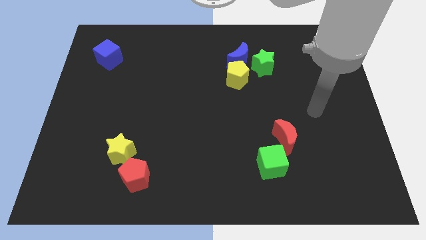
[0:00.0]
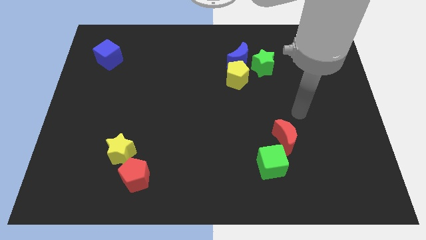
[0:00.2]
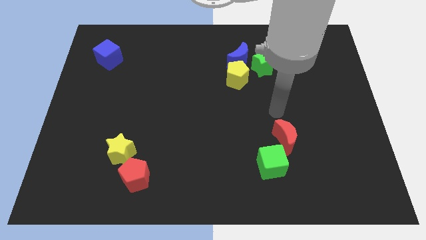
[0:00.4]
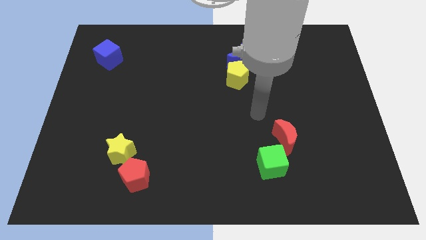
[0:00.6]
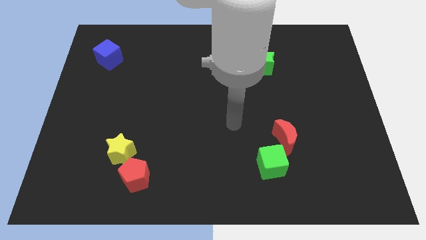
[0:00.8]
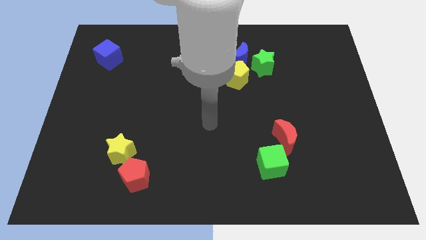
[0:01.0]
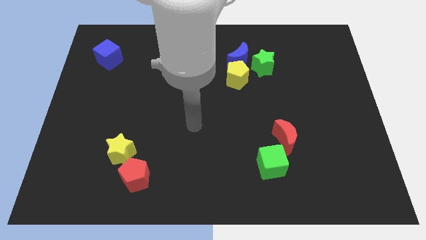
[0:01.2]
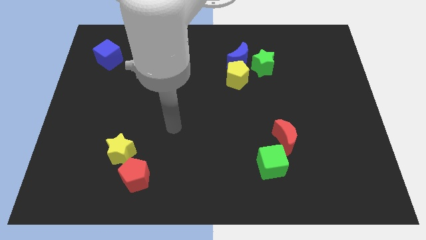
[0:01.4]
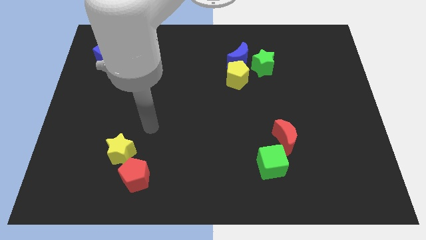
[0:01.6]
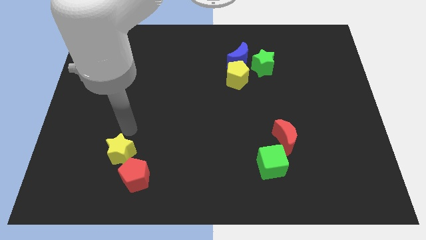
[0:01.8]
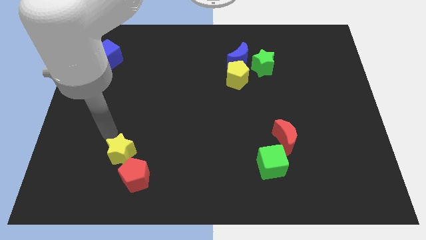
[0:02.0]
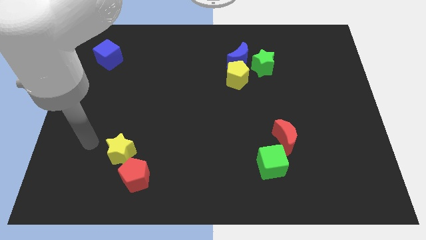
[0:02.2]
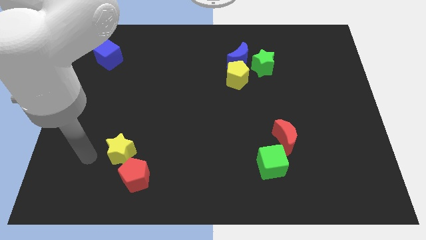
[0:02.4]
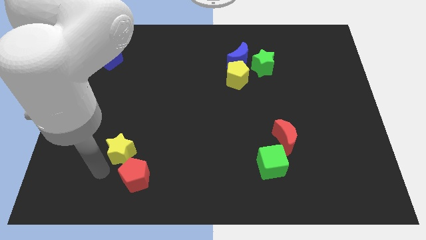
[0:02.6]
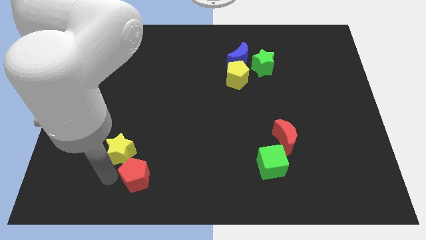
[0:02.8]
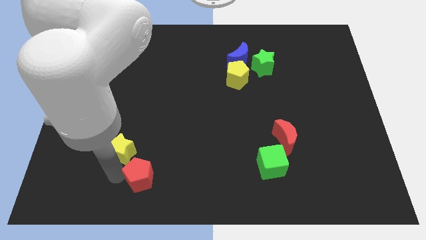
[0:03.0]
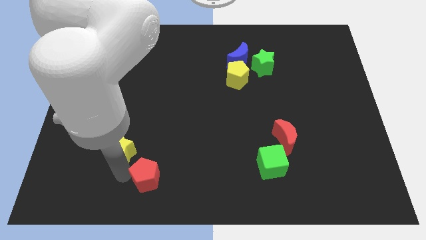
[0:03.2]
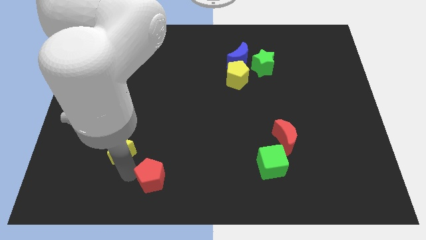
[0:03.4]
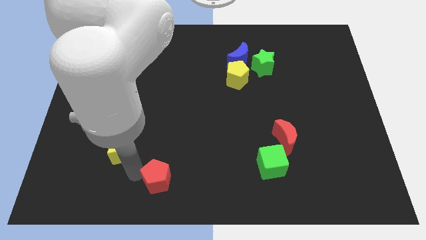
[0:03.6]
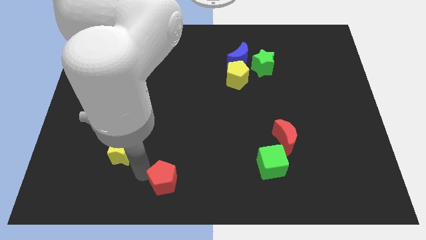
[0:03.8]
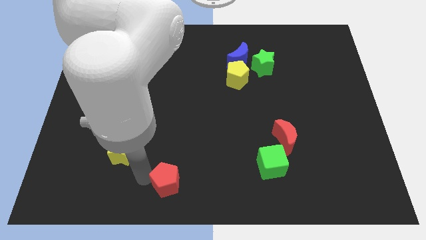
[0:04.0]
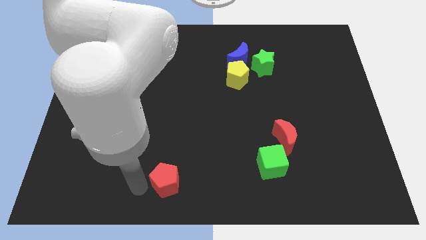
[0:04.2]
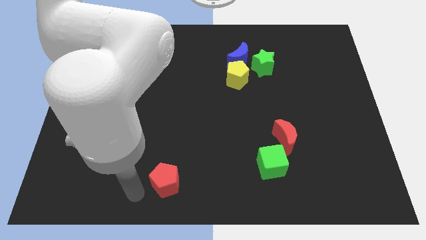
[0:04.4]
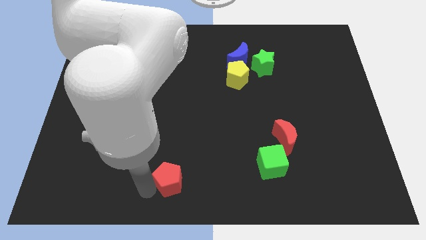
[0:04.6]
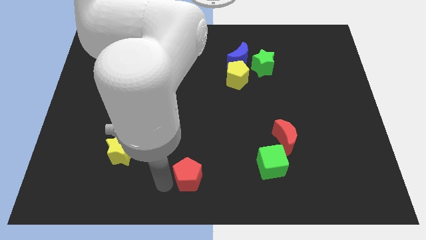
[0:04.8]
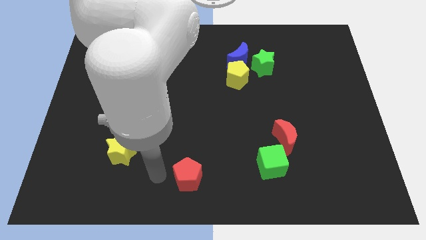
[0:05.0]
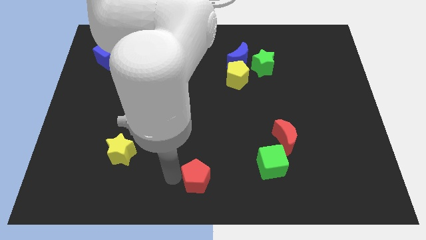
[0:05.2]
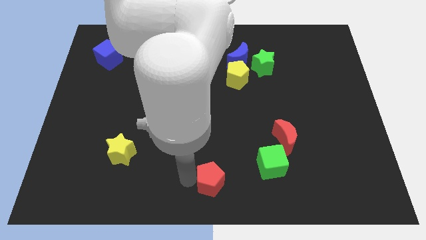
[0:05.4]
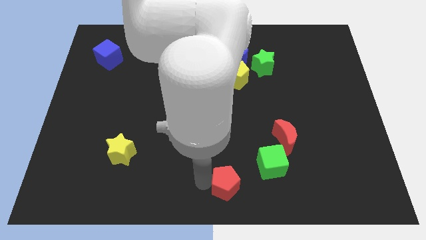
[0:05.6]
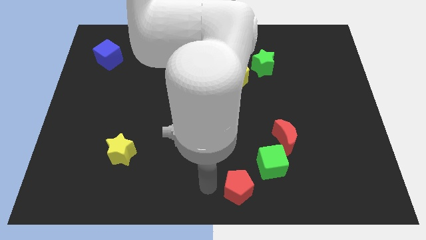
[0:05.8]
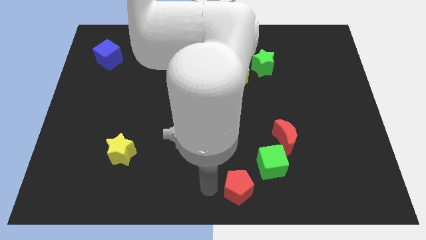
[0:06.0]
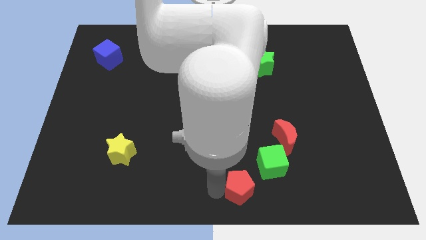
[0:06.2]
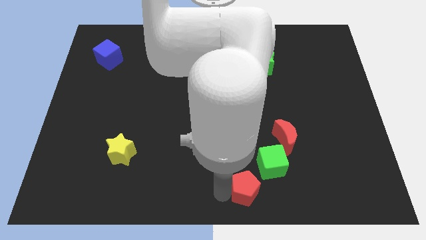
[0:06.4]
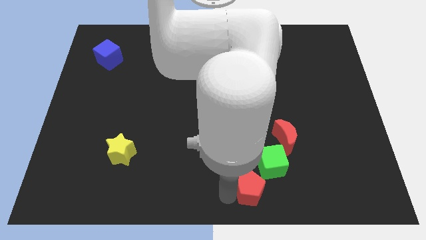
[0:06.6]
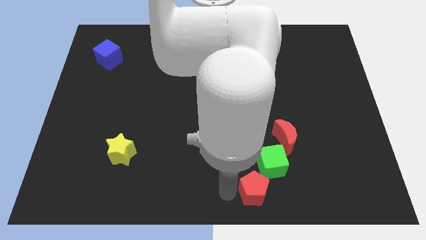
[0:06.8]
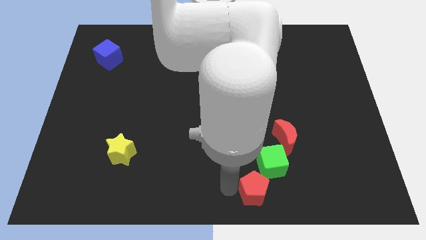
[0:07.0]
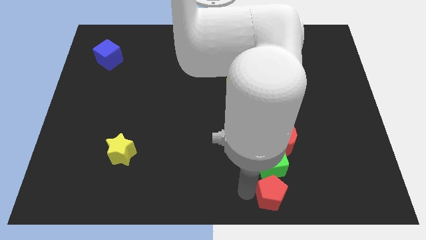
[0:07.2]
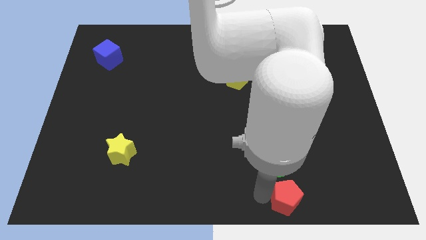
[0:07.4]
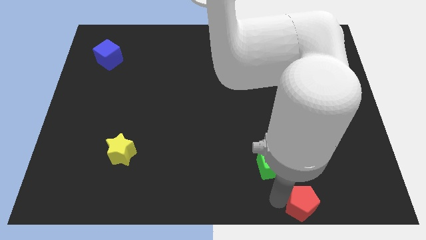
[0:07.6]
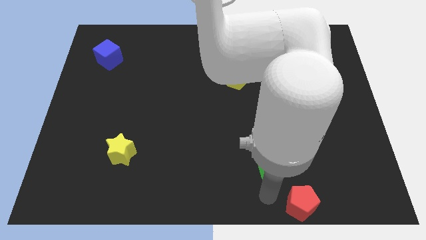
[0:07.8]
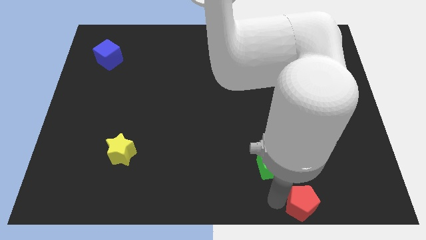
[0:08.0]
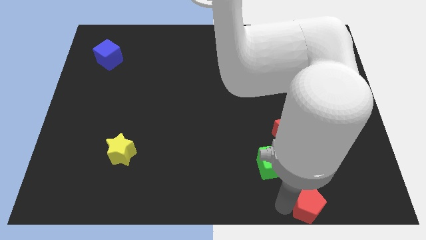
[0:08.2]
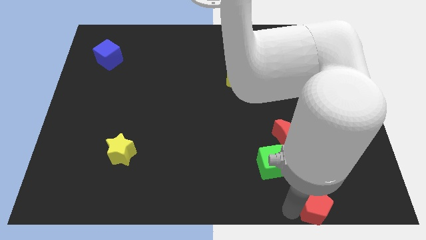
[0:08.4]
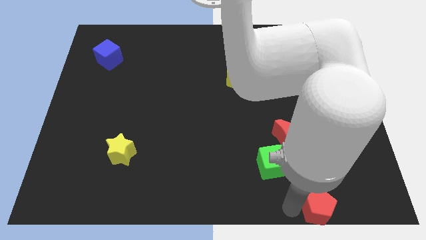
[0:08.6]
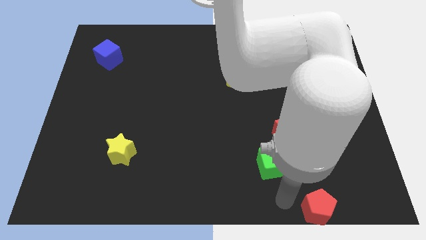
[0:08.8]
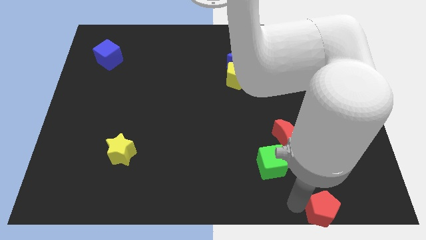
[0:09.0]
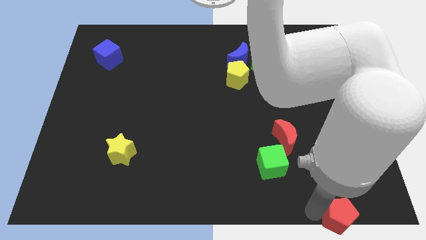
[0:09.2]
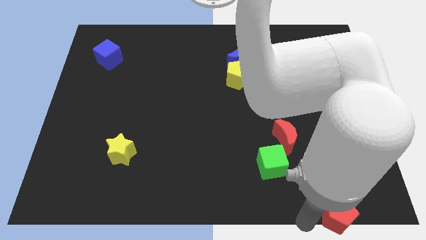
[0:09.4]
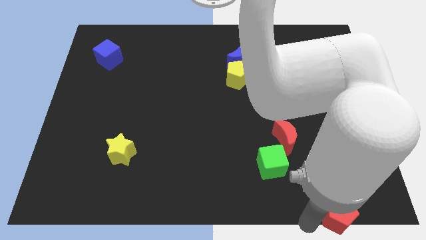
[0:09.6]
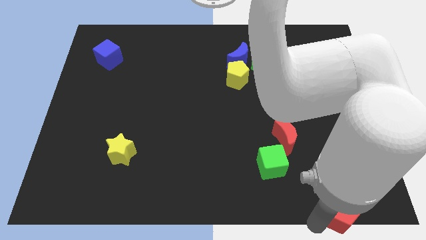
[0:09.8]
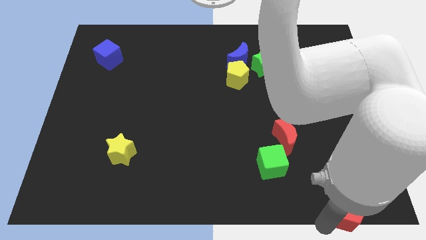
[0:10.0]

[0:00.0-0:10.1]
put the red pentagon to the bottom right

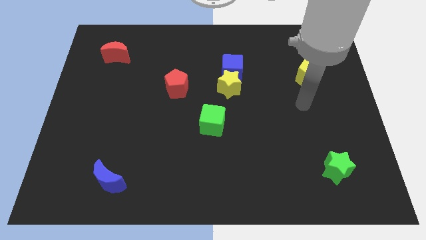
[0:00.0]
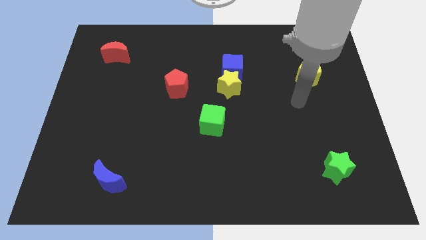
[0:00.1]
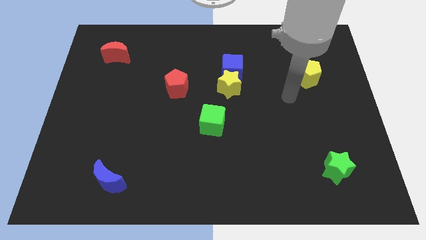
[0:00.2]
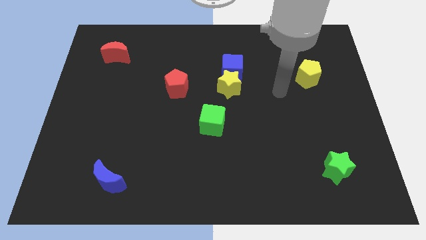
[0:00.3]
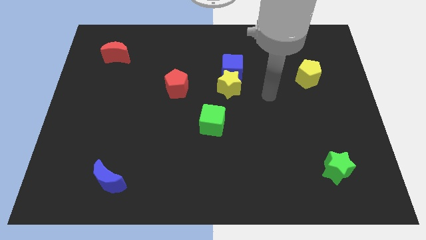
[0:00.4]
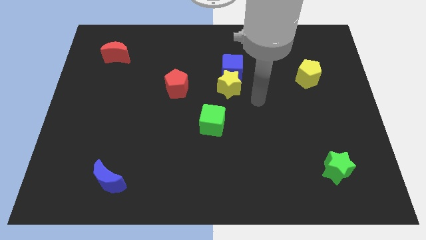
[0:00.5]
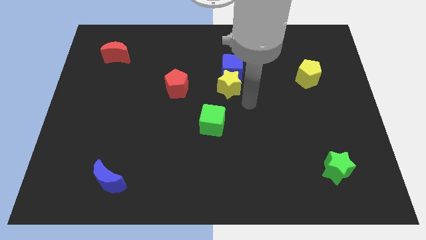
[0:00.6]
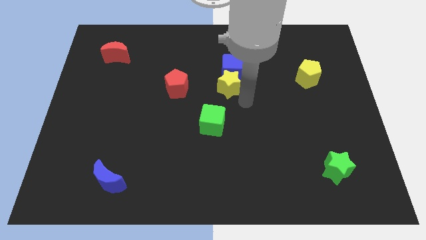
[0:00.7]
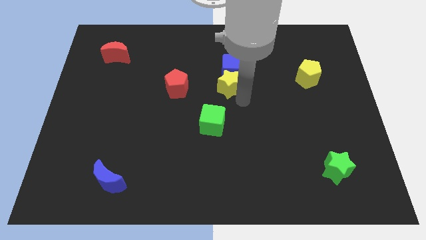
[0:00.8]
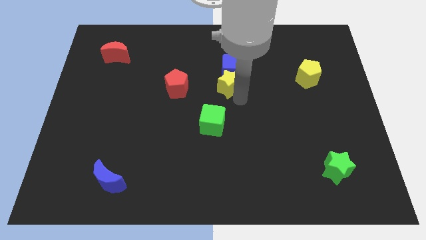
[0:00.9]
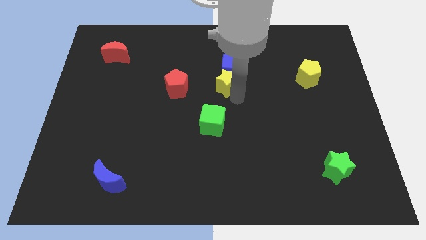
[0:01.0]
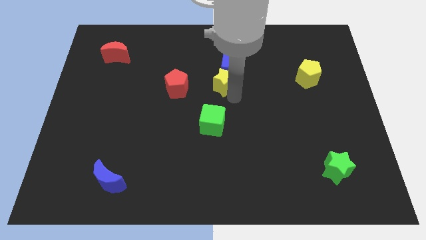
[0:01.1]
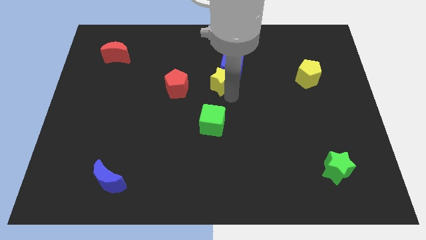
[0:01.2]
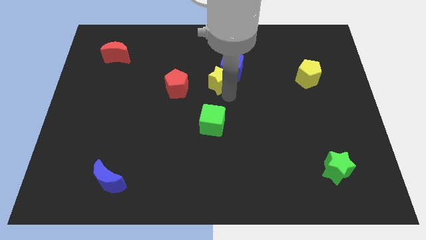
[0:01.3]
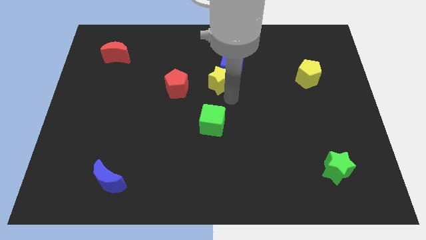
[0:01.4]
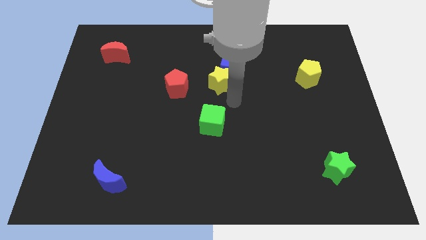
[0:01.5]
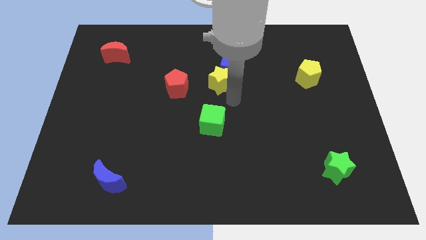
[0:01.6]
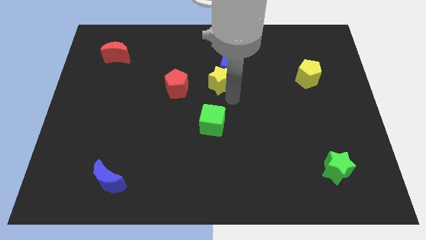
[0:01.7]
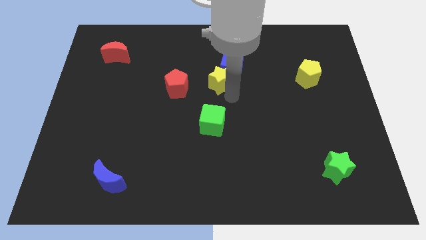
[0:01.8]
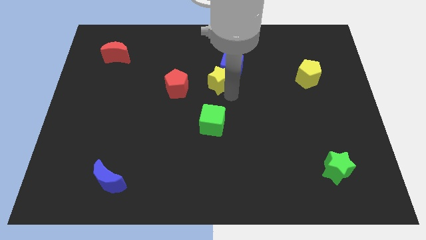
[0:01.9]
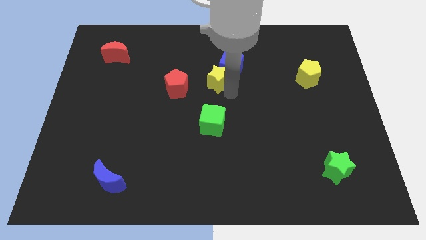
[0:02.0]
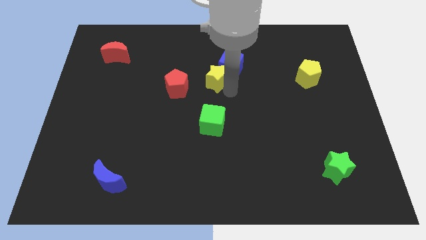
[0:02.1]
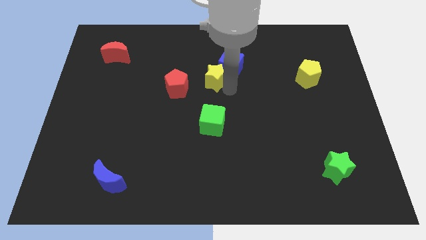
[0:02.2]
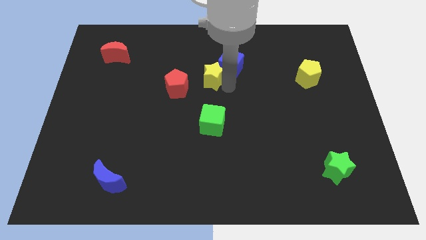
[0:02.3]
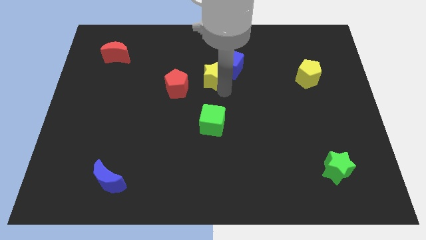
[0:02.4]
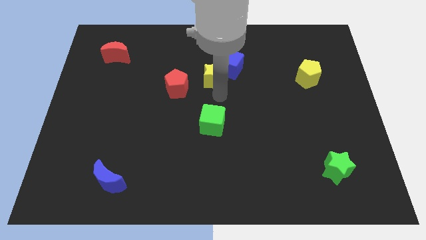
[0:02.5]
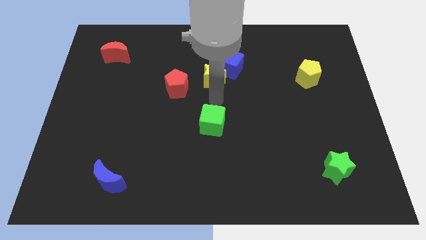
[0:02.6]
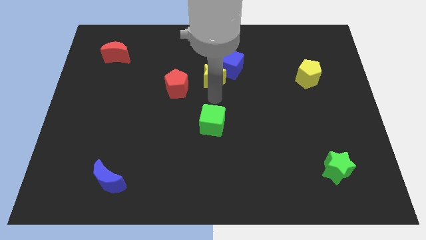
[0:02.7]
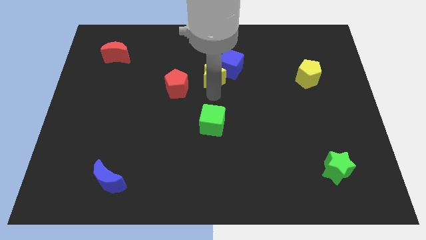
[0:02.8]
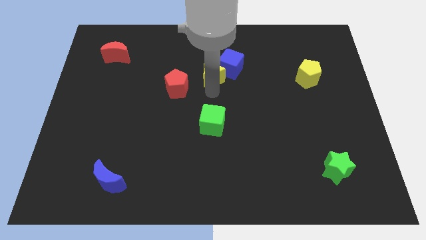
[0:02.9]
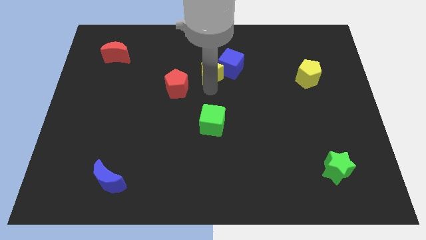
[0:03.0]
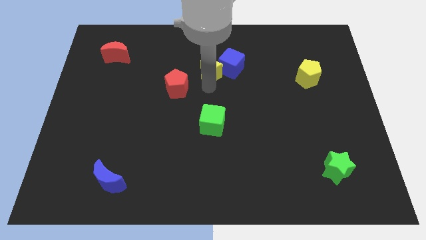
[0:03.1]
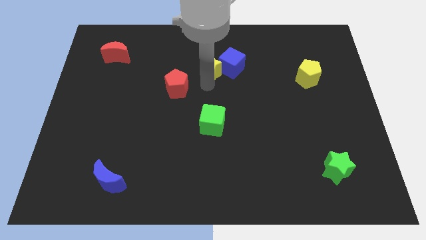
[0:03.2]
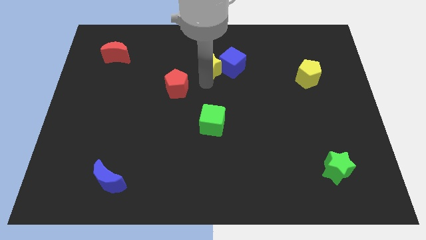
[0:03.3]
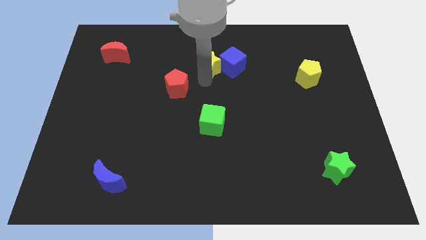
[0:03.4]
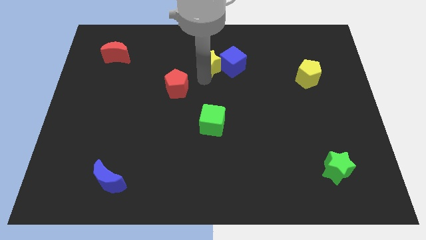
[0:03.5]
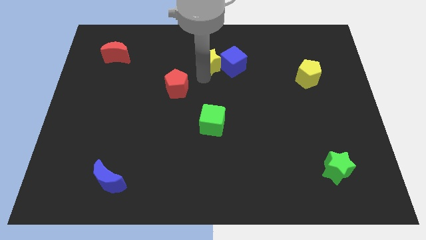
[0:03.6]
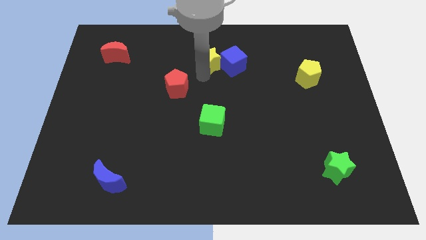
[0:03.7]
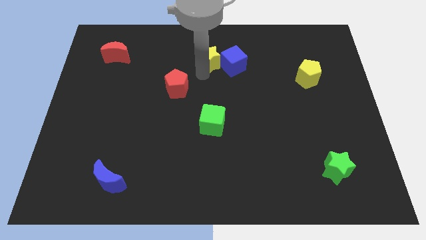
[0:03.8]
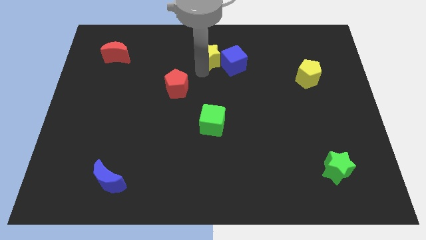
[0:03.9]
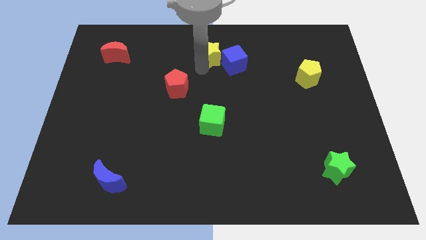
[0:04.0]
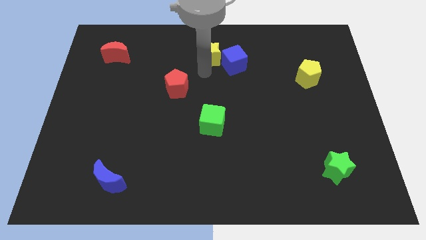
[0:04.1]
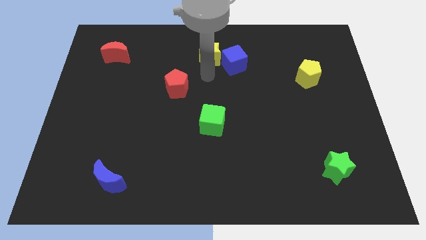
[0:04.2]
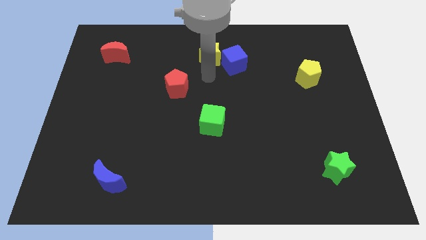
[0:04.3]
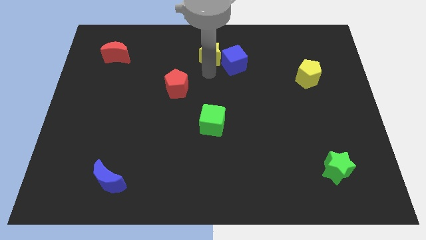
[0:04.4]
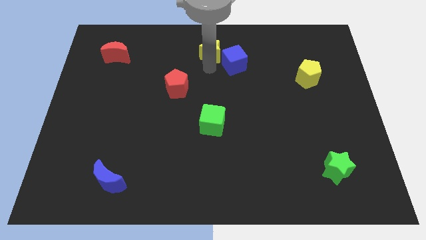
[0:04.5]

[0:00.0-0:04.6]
push the yellow star to the top
